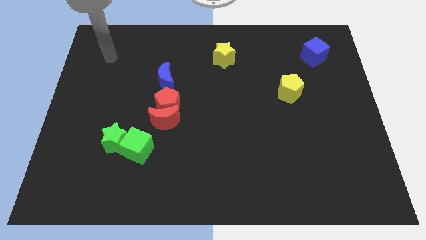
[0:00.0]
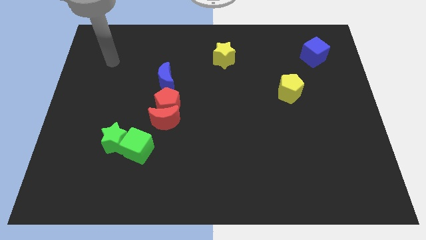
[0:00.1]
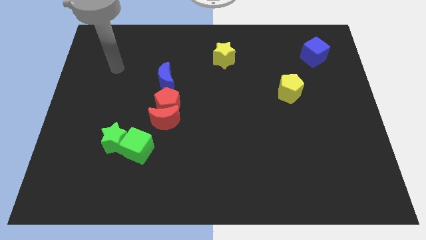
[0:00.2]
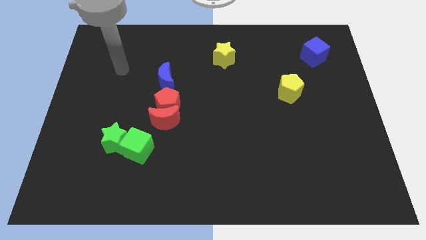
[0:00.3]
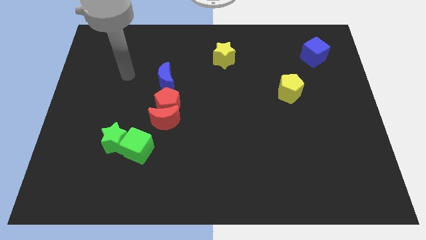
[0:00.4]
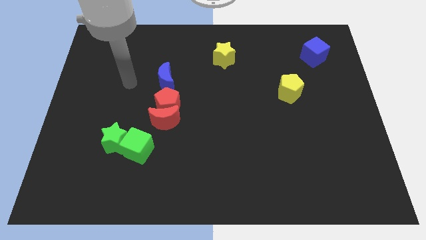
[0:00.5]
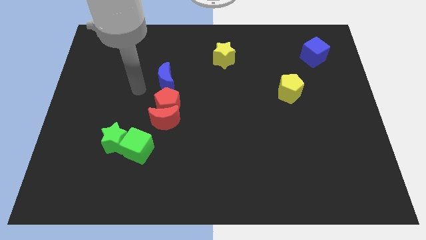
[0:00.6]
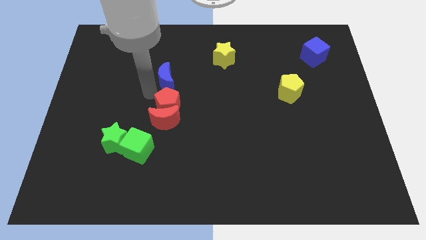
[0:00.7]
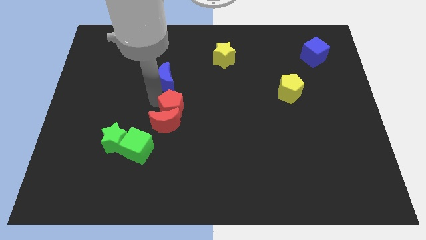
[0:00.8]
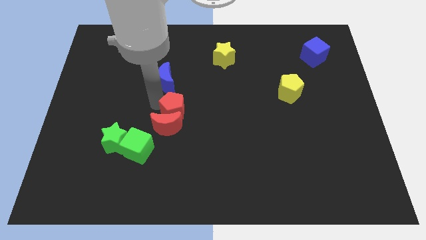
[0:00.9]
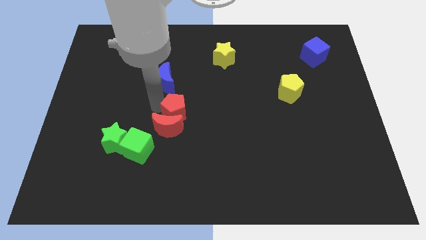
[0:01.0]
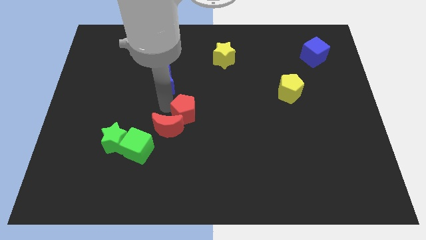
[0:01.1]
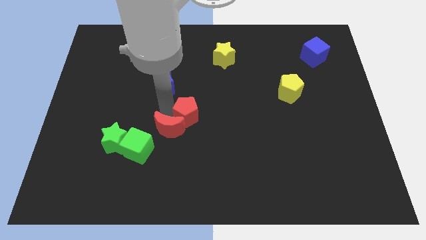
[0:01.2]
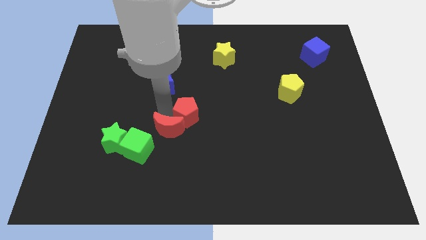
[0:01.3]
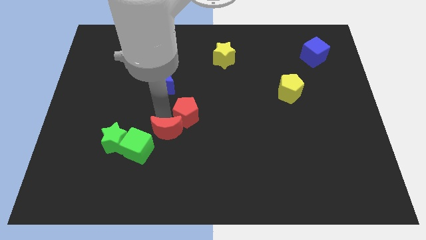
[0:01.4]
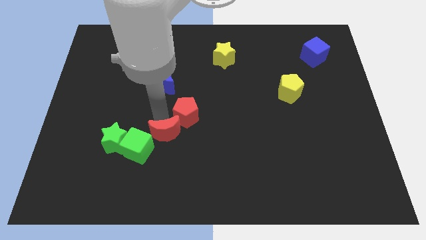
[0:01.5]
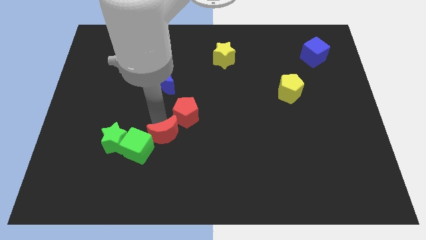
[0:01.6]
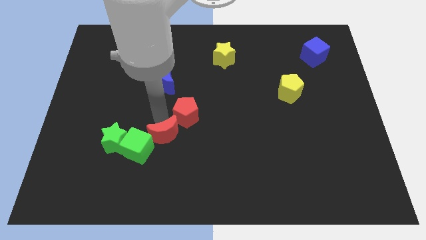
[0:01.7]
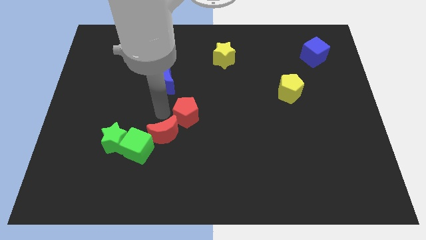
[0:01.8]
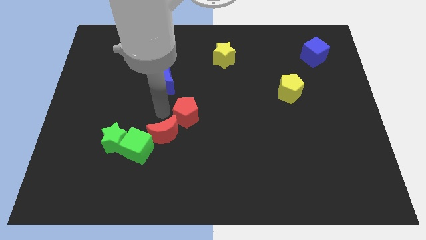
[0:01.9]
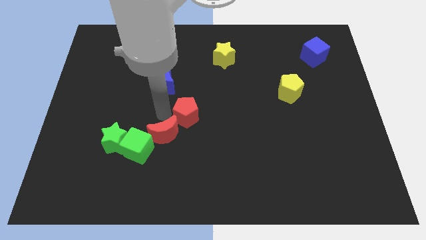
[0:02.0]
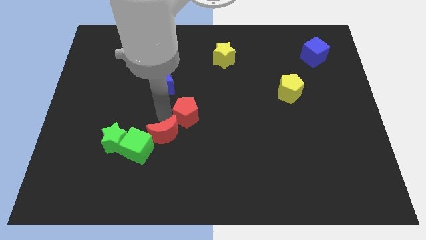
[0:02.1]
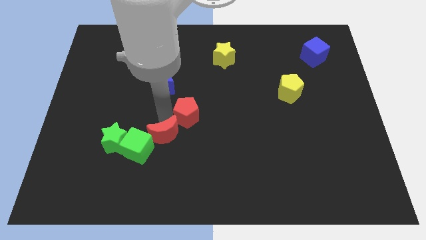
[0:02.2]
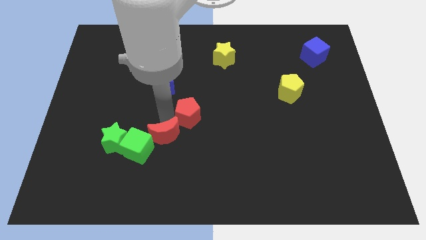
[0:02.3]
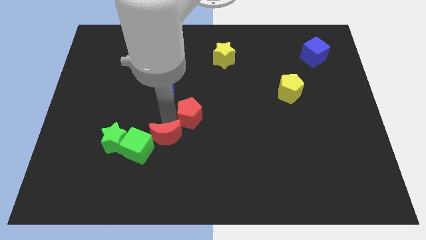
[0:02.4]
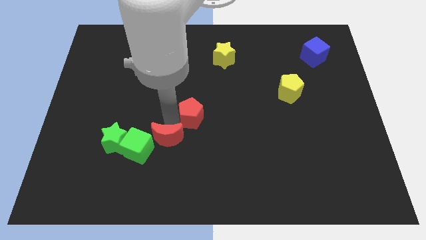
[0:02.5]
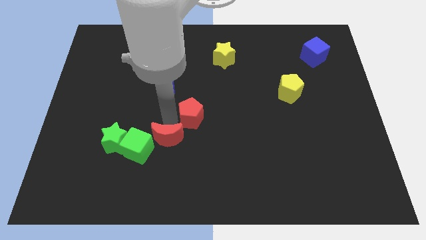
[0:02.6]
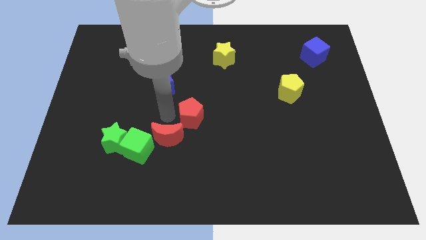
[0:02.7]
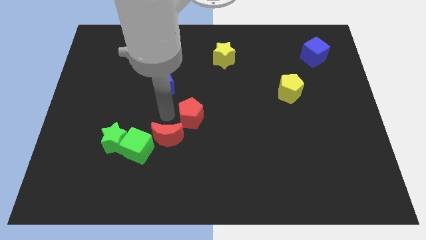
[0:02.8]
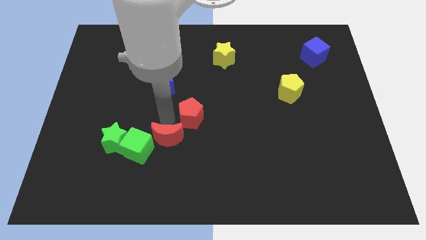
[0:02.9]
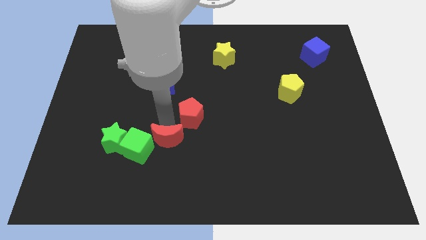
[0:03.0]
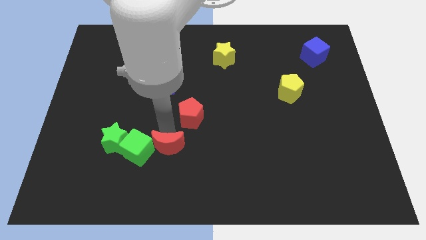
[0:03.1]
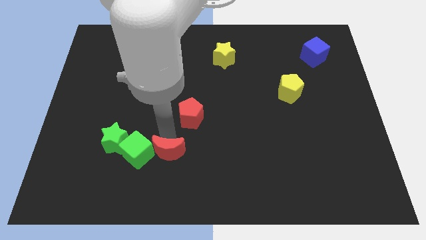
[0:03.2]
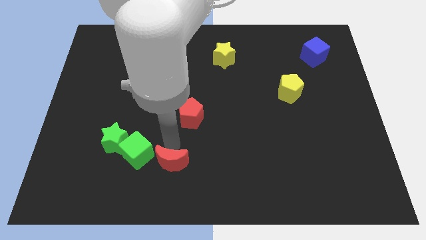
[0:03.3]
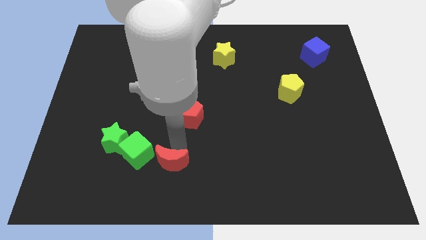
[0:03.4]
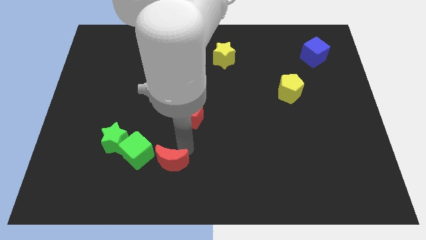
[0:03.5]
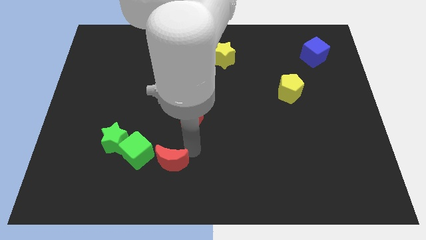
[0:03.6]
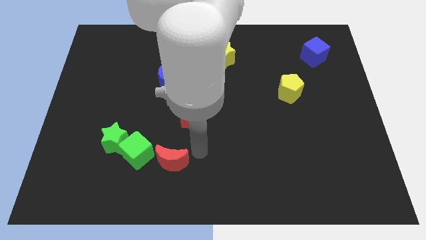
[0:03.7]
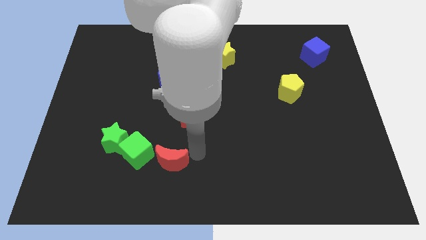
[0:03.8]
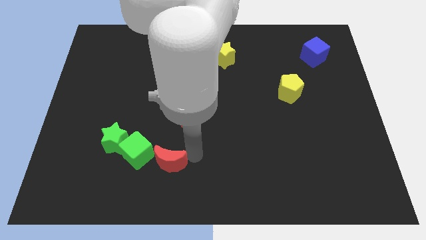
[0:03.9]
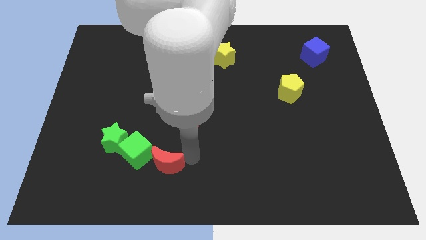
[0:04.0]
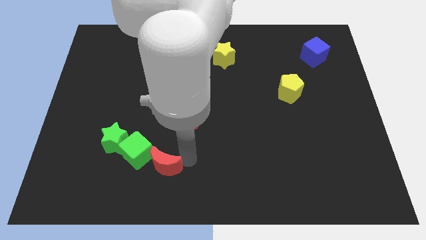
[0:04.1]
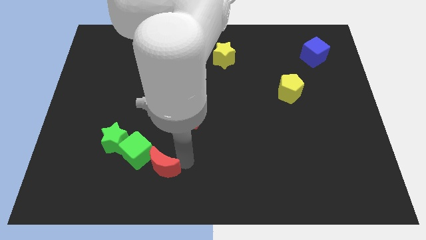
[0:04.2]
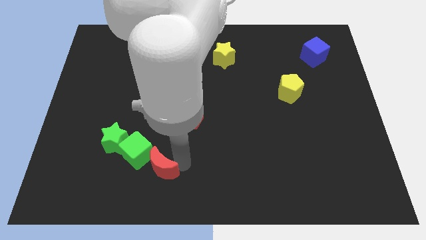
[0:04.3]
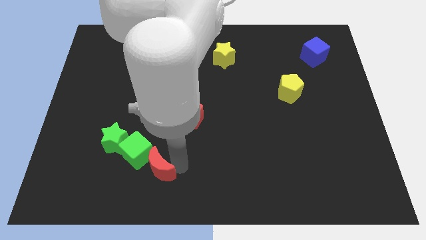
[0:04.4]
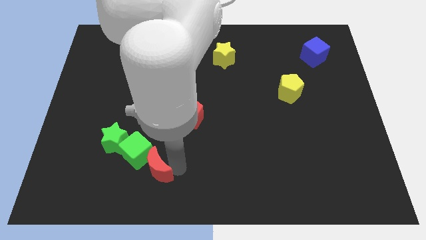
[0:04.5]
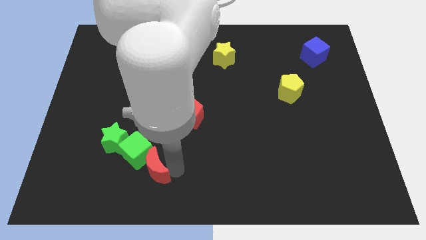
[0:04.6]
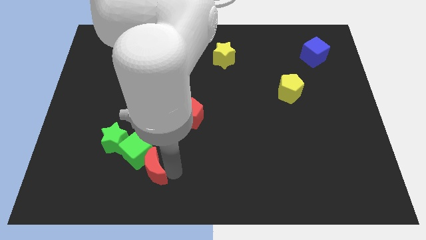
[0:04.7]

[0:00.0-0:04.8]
slide the red moon downwards and left a little

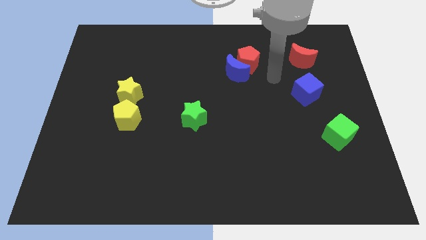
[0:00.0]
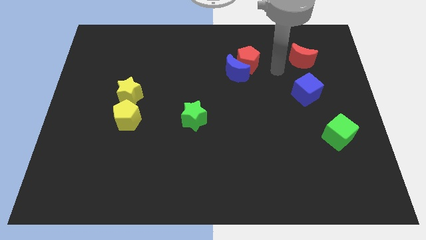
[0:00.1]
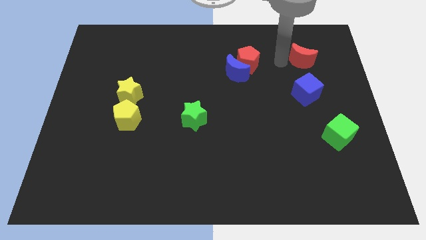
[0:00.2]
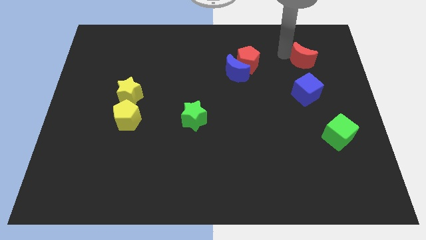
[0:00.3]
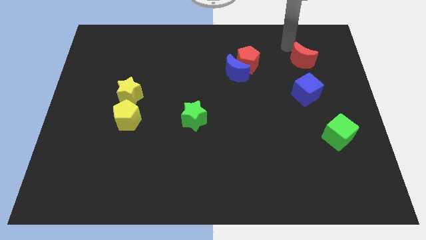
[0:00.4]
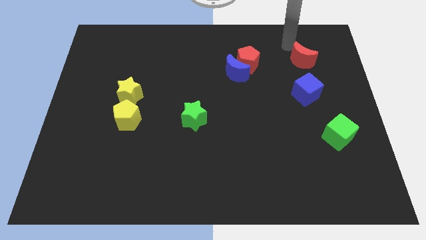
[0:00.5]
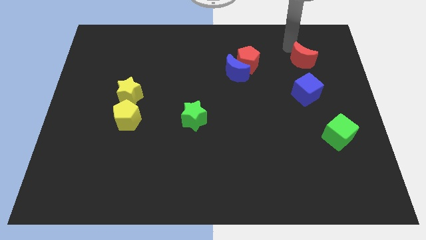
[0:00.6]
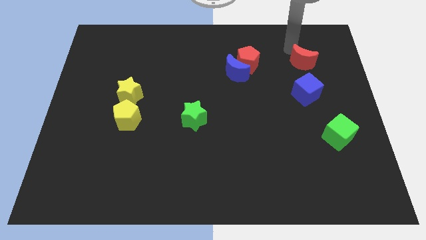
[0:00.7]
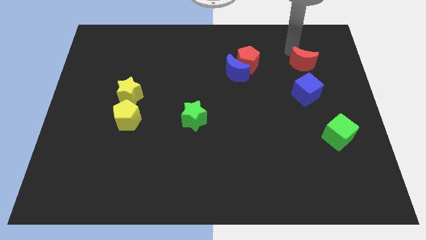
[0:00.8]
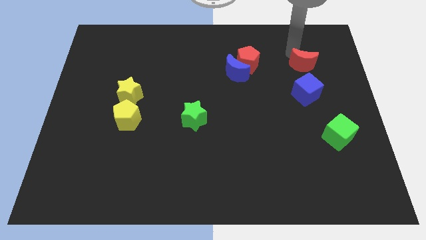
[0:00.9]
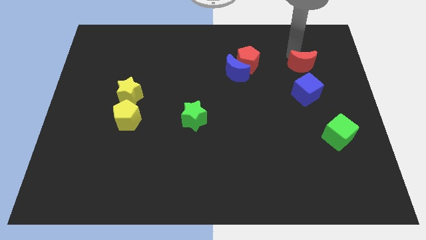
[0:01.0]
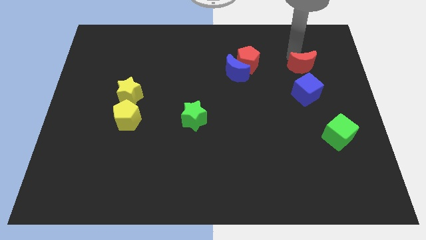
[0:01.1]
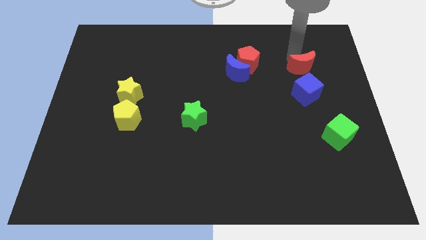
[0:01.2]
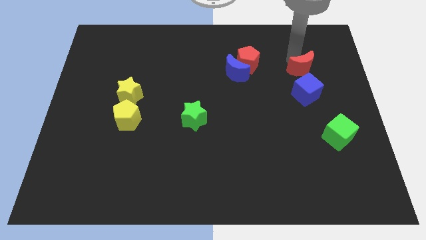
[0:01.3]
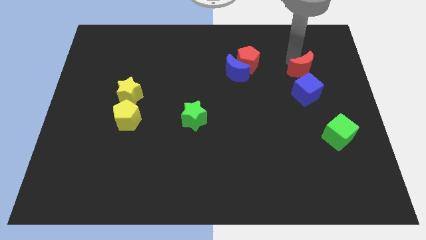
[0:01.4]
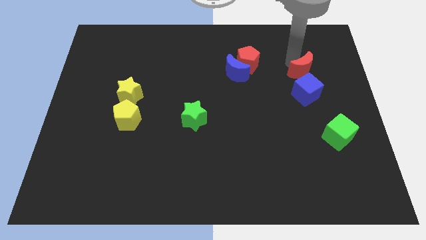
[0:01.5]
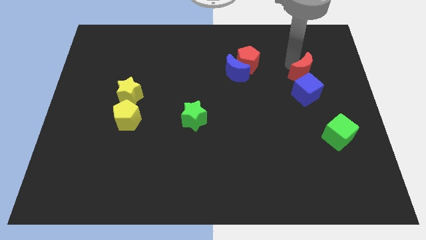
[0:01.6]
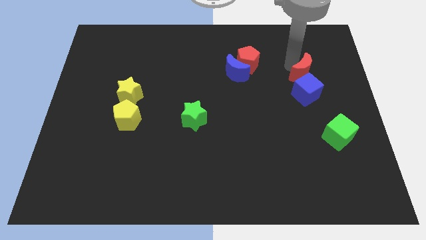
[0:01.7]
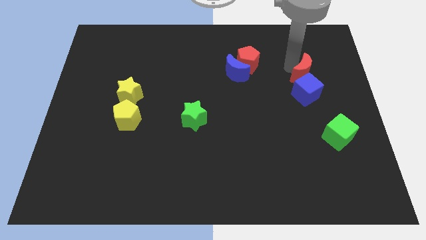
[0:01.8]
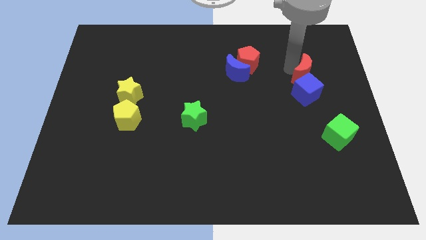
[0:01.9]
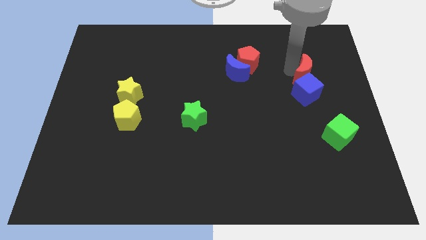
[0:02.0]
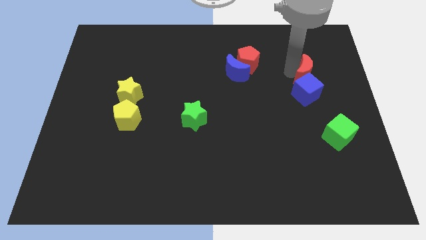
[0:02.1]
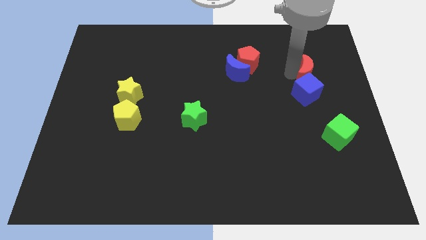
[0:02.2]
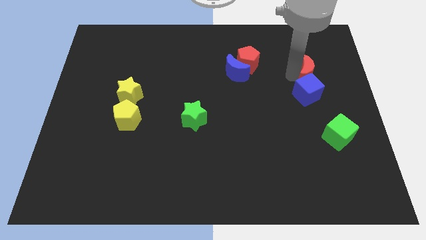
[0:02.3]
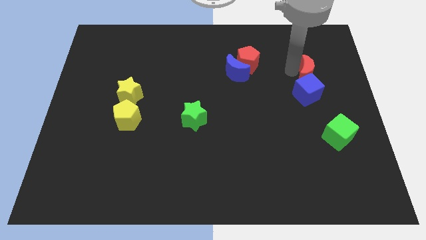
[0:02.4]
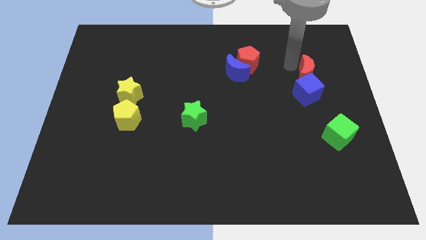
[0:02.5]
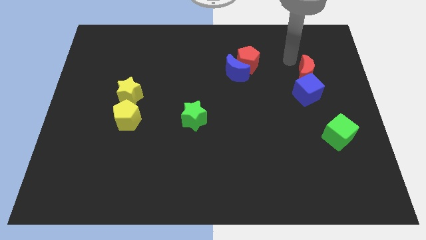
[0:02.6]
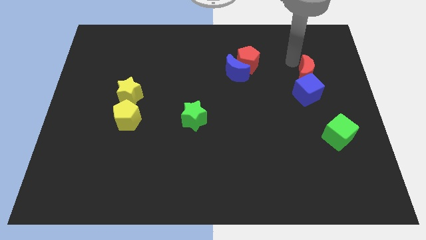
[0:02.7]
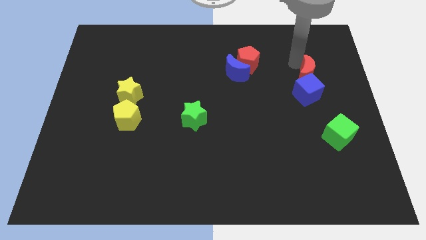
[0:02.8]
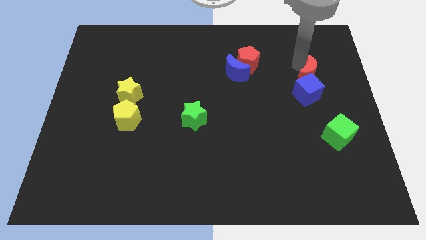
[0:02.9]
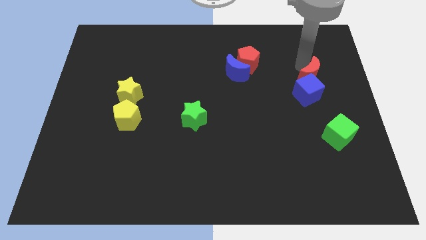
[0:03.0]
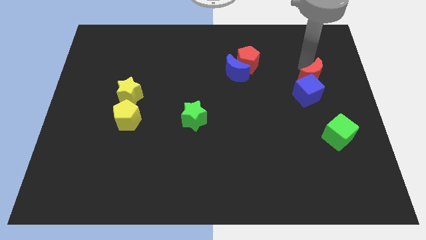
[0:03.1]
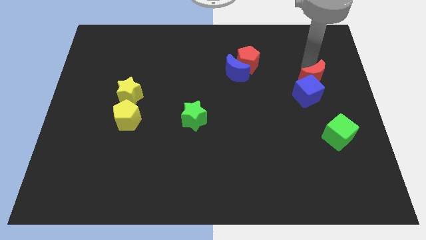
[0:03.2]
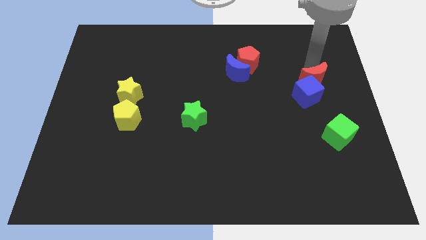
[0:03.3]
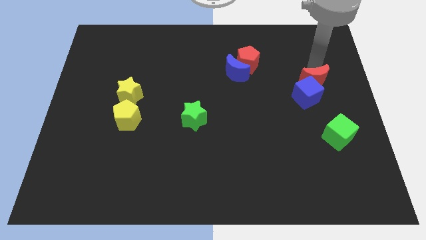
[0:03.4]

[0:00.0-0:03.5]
slightly push the red moon downwards

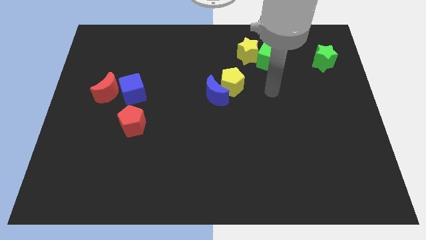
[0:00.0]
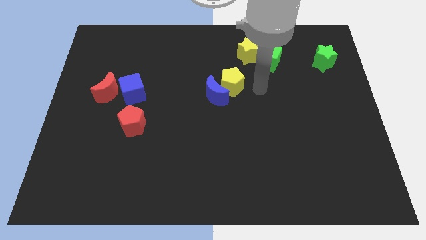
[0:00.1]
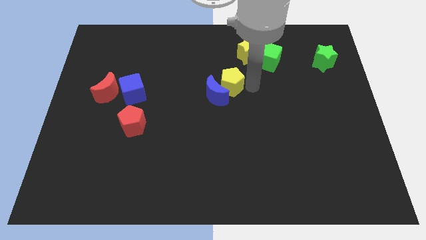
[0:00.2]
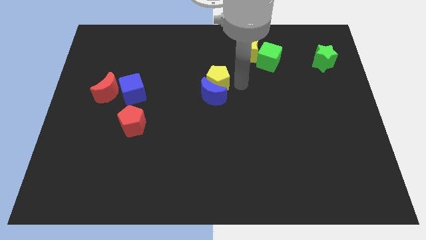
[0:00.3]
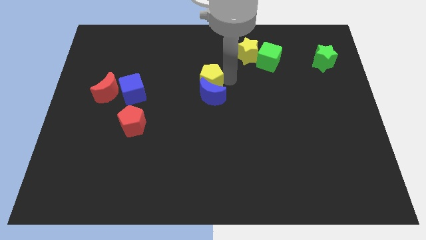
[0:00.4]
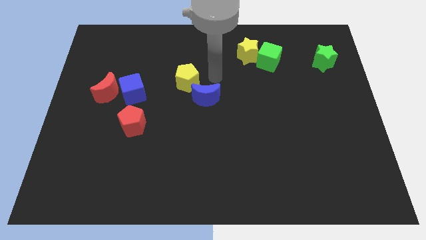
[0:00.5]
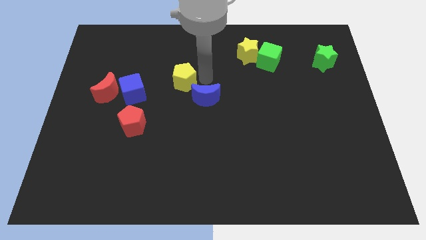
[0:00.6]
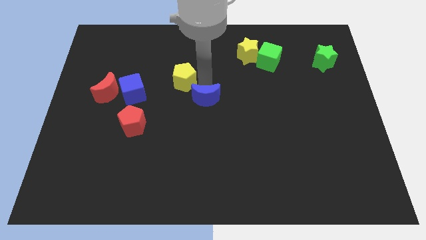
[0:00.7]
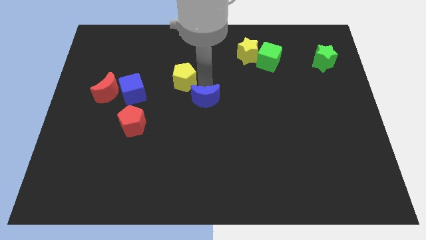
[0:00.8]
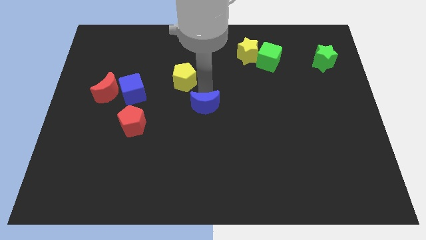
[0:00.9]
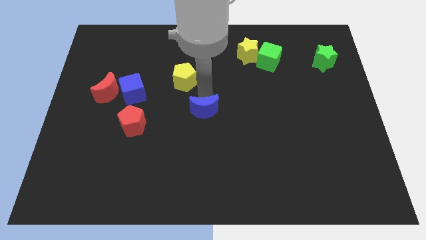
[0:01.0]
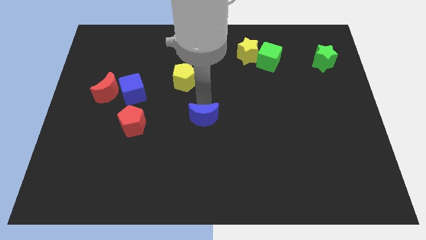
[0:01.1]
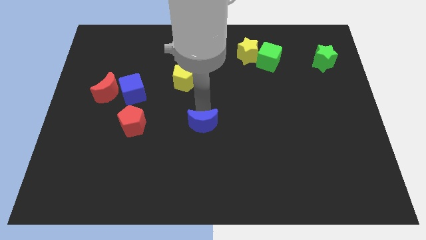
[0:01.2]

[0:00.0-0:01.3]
slide the blue moon slightly down
